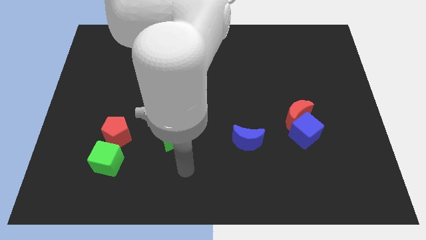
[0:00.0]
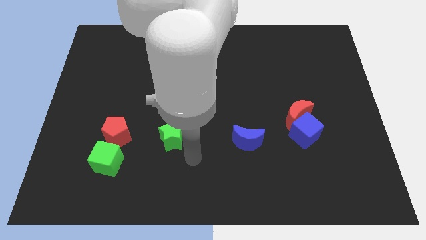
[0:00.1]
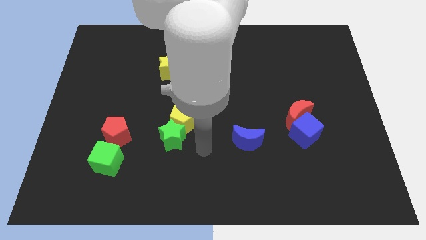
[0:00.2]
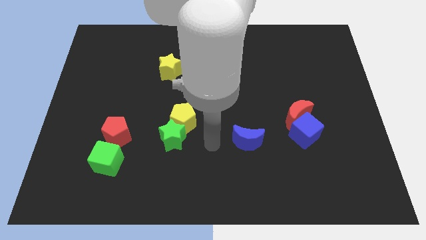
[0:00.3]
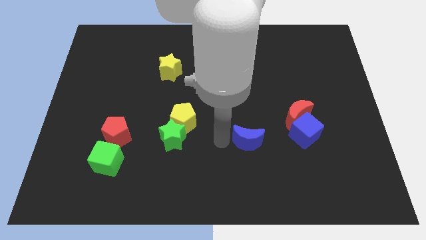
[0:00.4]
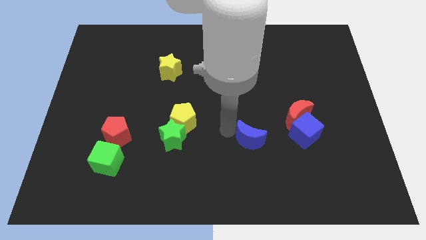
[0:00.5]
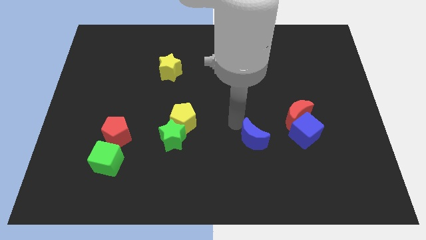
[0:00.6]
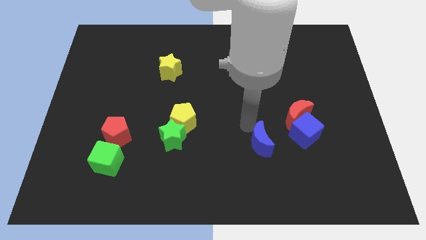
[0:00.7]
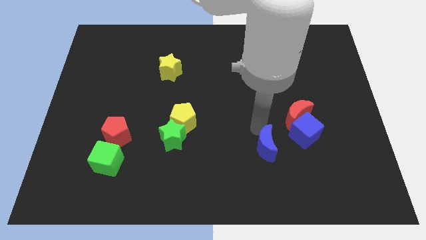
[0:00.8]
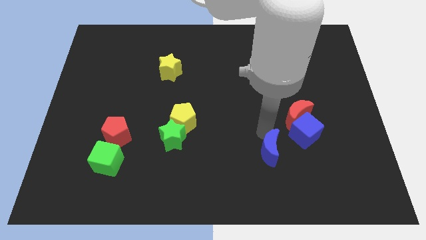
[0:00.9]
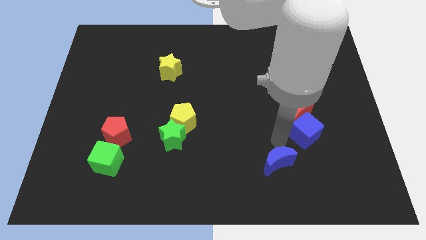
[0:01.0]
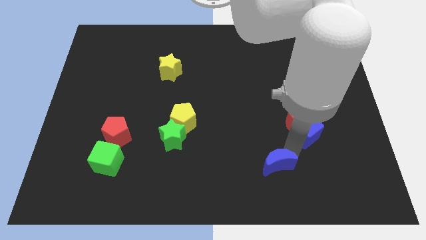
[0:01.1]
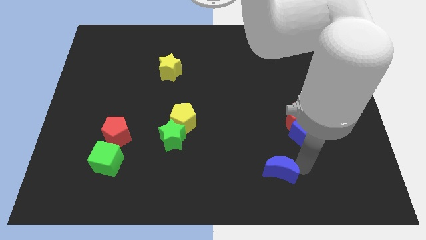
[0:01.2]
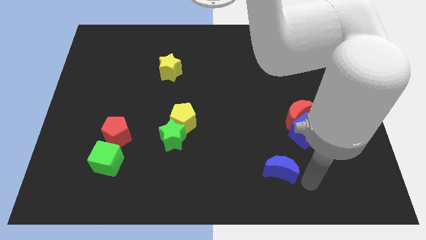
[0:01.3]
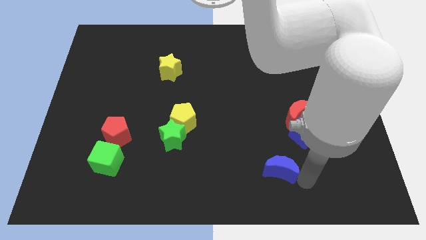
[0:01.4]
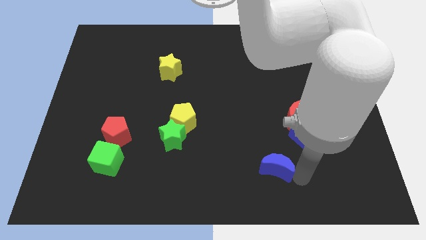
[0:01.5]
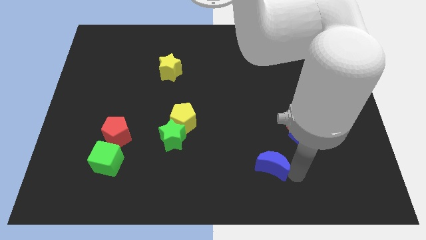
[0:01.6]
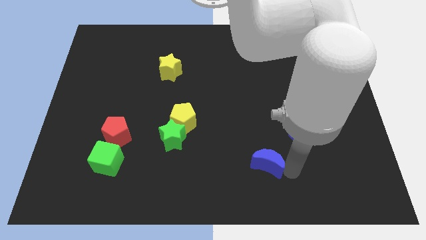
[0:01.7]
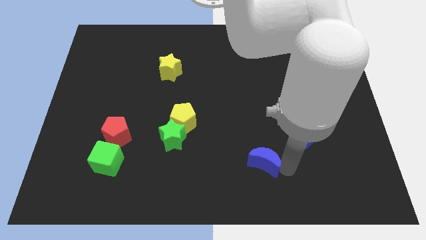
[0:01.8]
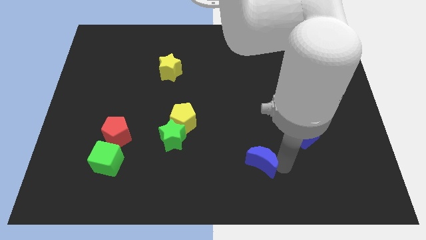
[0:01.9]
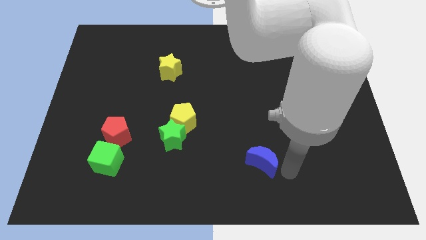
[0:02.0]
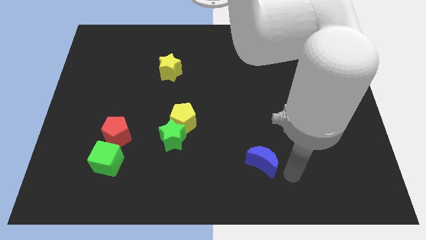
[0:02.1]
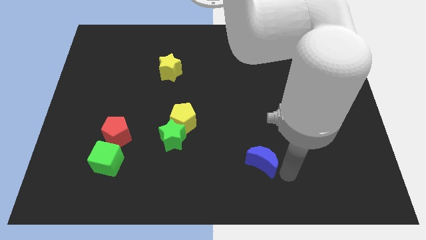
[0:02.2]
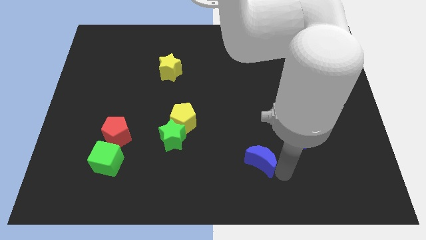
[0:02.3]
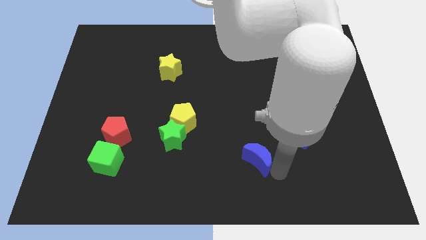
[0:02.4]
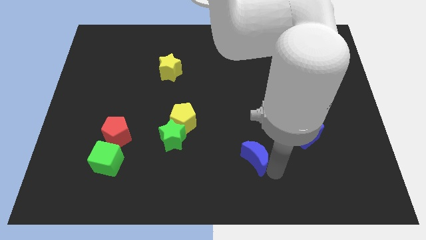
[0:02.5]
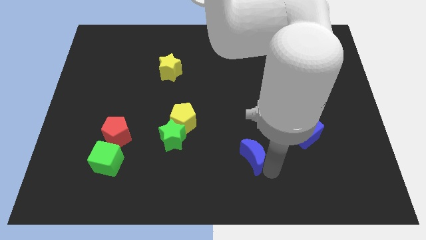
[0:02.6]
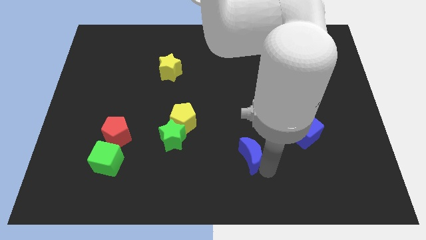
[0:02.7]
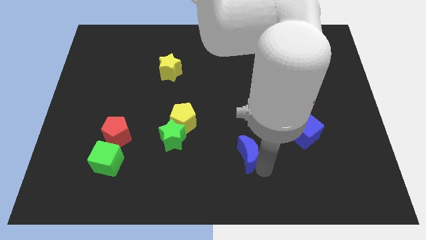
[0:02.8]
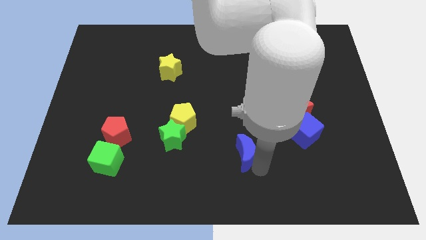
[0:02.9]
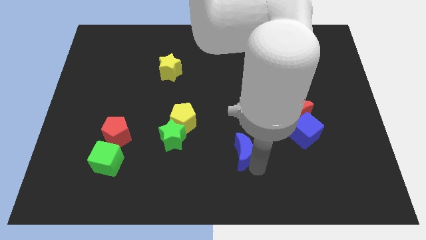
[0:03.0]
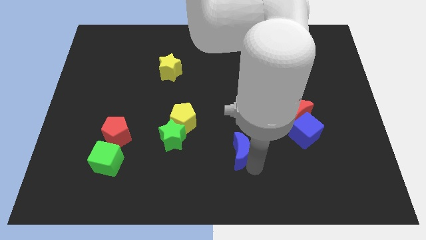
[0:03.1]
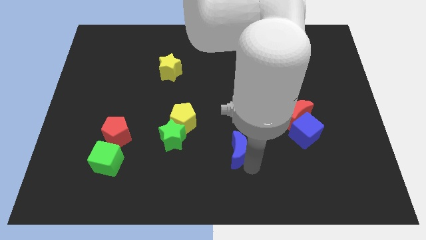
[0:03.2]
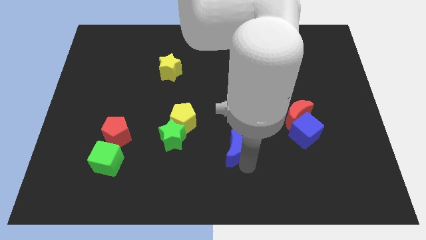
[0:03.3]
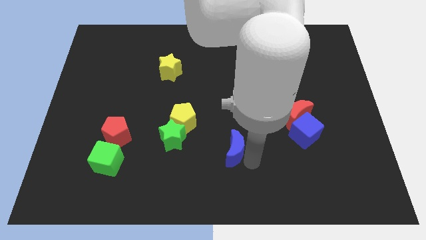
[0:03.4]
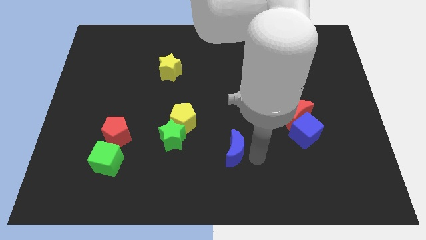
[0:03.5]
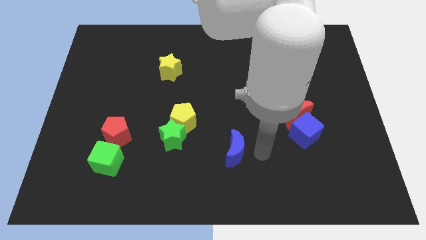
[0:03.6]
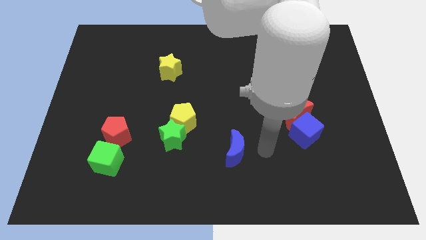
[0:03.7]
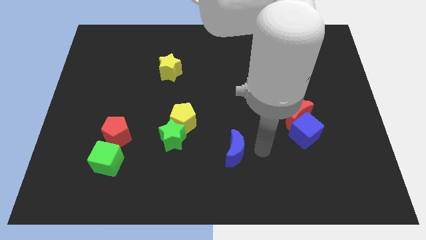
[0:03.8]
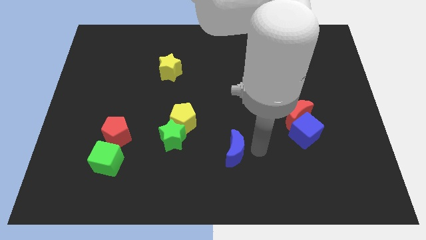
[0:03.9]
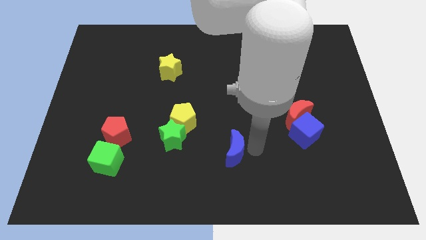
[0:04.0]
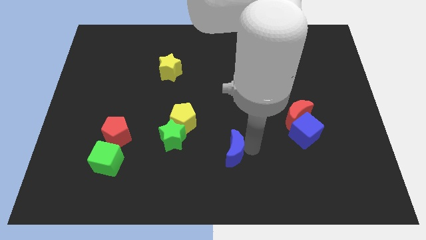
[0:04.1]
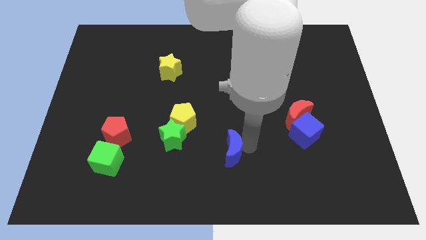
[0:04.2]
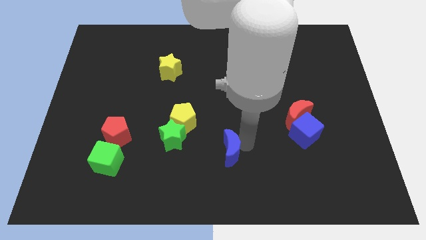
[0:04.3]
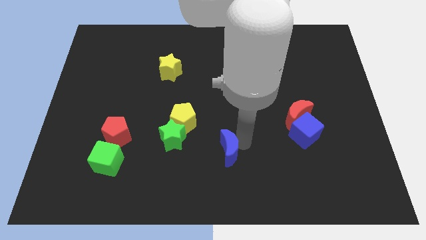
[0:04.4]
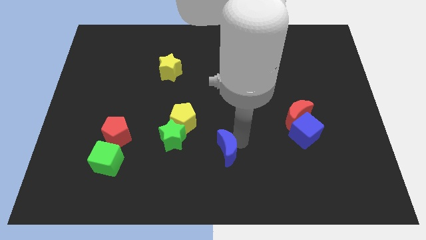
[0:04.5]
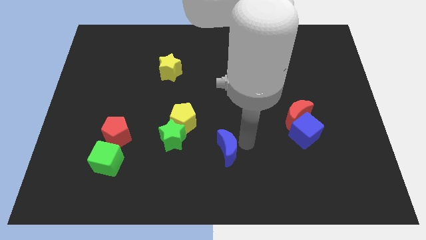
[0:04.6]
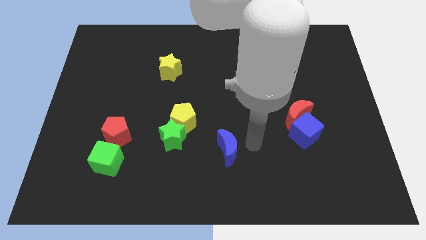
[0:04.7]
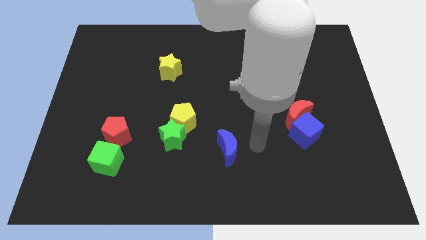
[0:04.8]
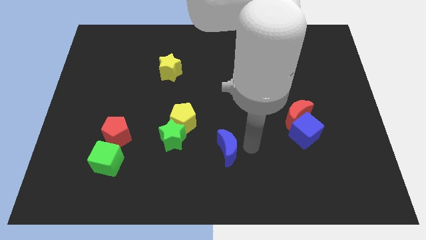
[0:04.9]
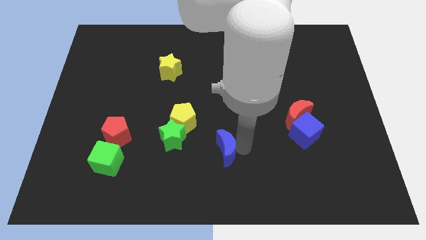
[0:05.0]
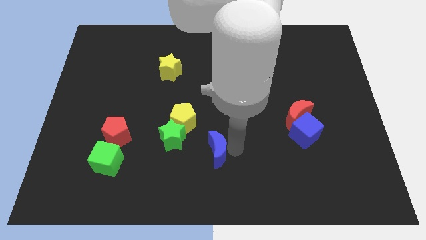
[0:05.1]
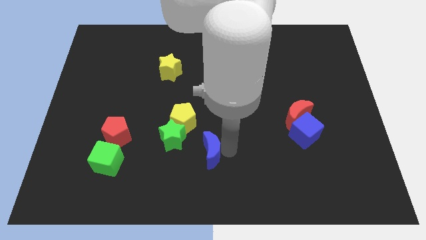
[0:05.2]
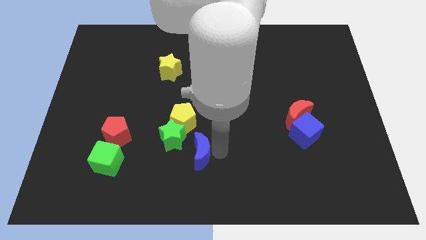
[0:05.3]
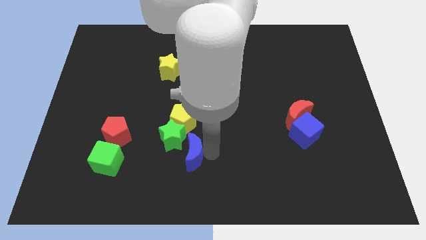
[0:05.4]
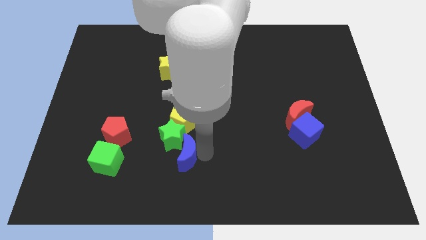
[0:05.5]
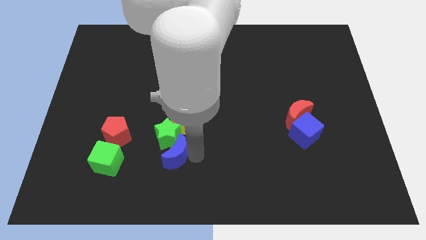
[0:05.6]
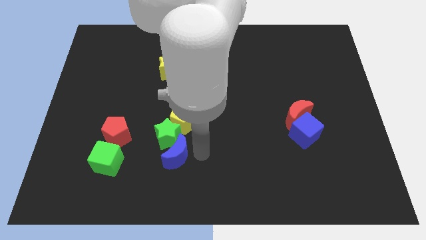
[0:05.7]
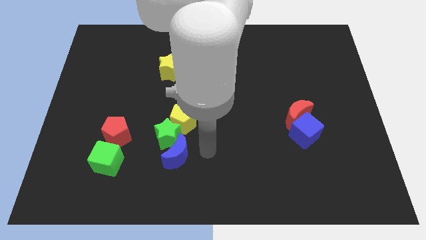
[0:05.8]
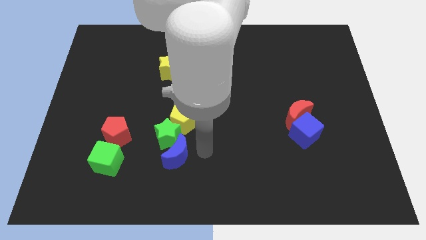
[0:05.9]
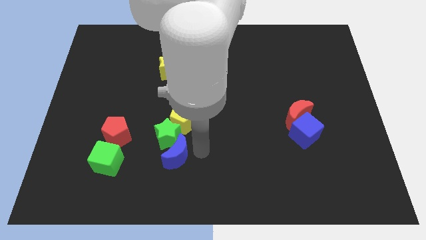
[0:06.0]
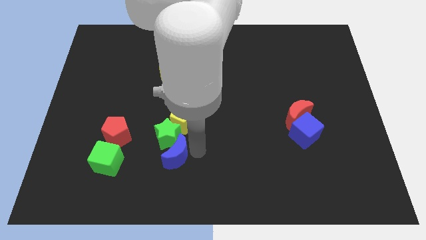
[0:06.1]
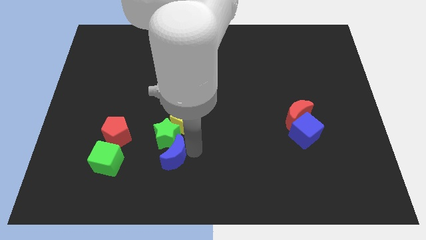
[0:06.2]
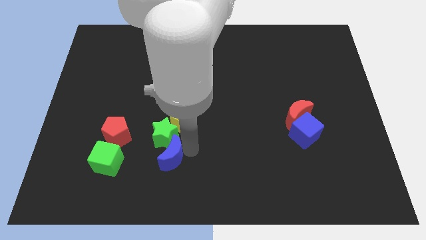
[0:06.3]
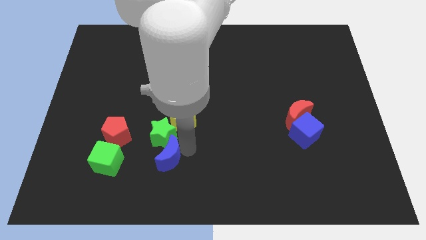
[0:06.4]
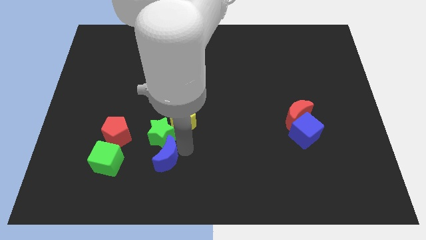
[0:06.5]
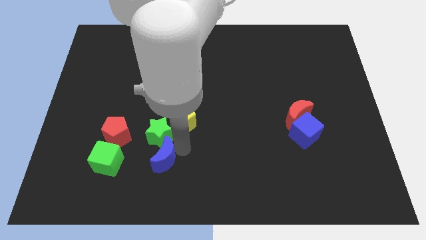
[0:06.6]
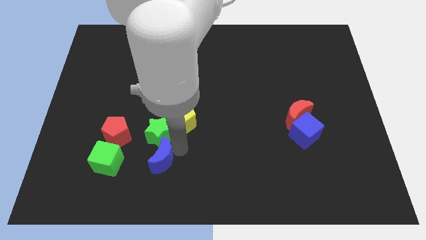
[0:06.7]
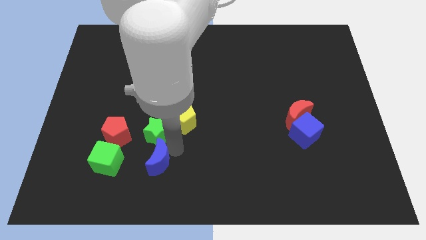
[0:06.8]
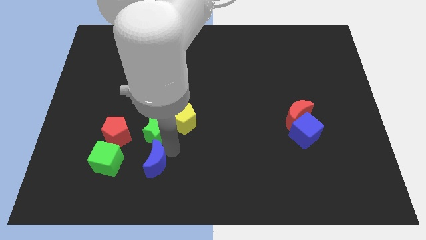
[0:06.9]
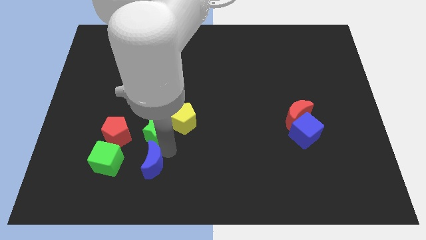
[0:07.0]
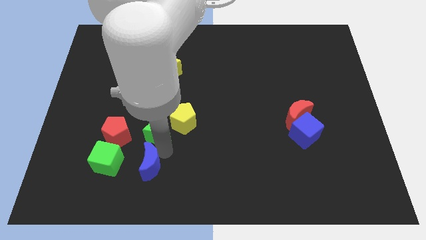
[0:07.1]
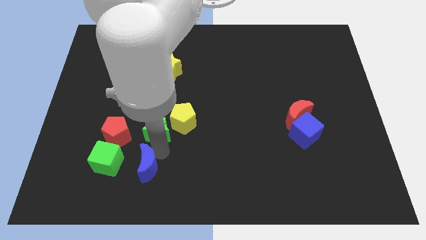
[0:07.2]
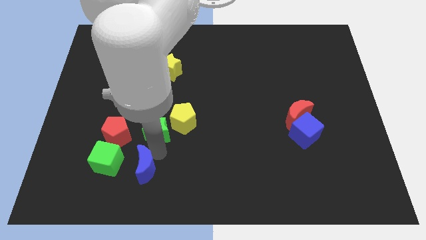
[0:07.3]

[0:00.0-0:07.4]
move the blue moon to the left

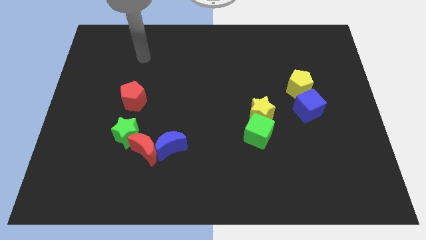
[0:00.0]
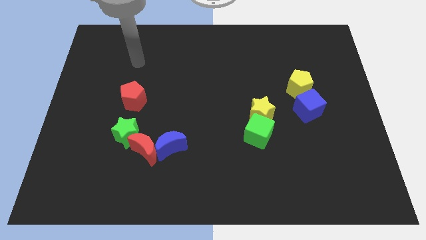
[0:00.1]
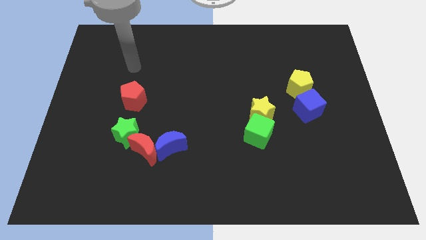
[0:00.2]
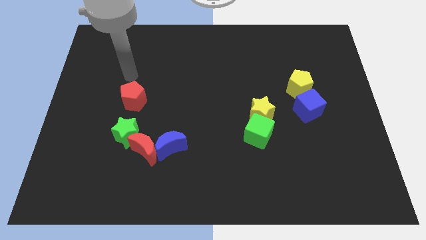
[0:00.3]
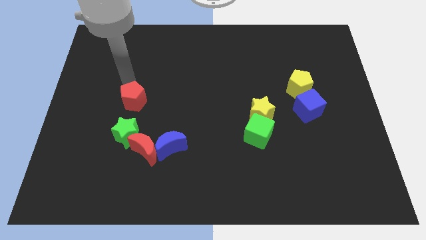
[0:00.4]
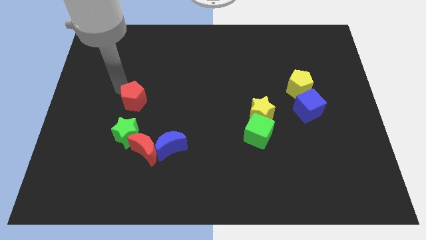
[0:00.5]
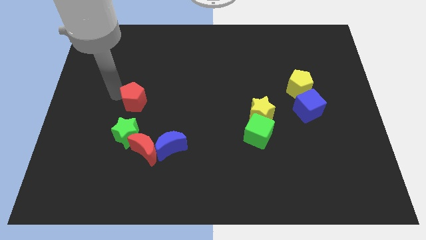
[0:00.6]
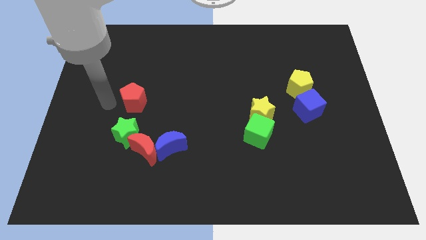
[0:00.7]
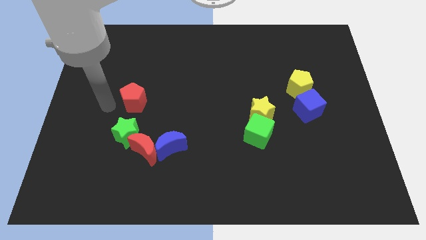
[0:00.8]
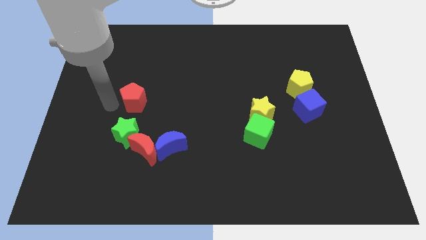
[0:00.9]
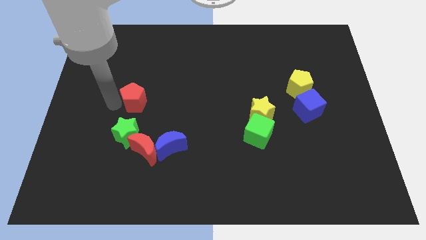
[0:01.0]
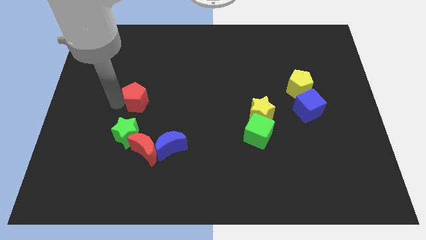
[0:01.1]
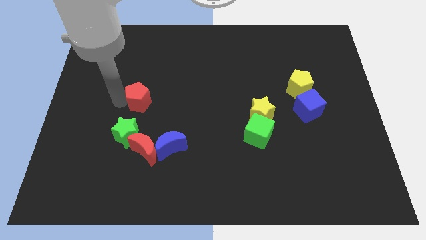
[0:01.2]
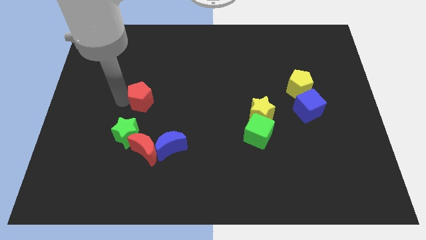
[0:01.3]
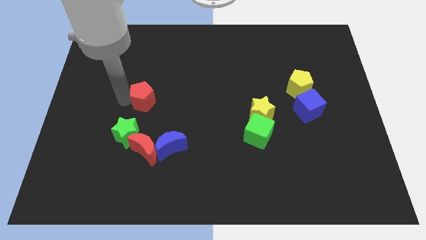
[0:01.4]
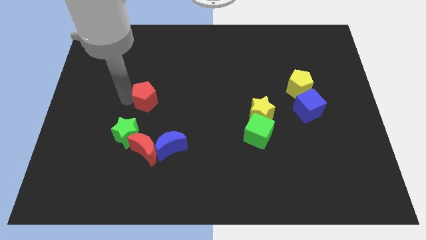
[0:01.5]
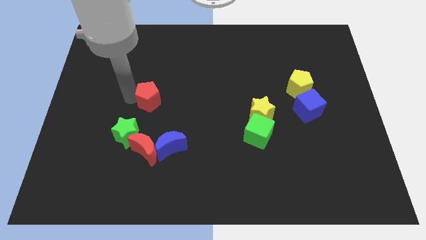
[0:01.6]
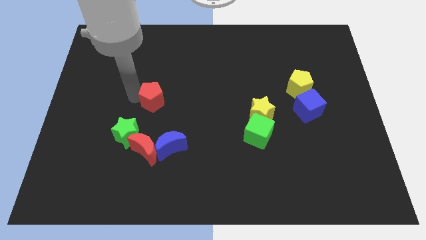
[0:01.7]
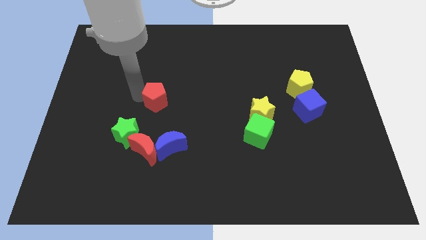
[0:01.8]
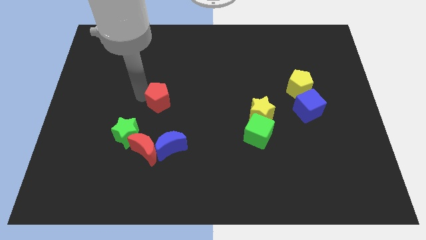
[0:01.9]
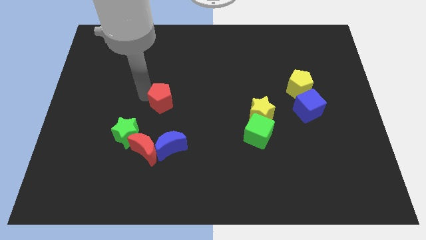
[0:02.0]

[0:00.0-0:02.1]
slightly slide the red pentagon to the right
